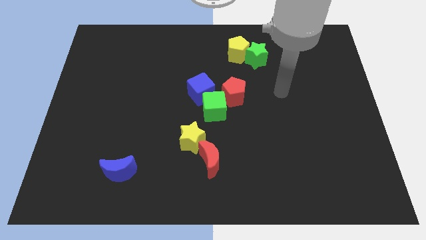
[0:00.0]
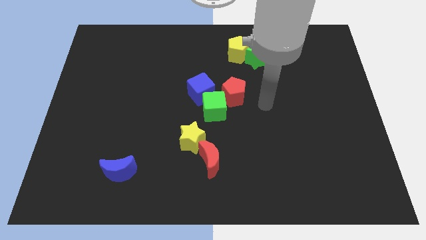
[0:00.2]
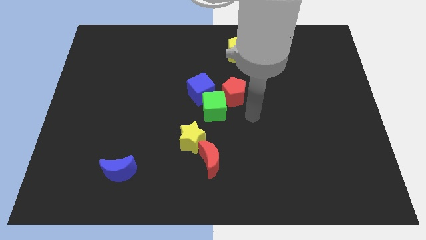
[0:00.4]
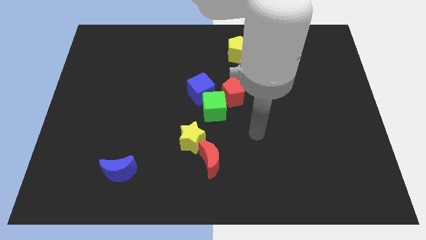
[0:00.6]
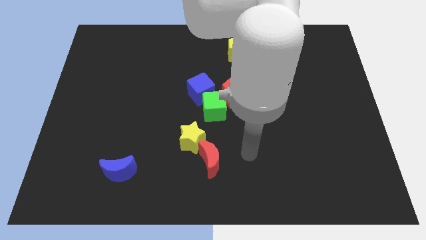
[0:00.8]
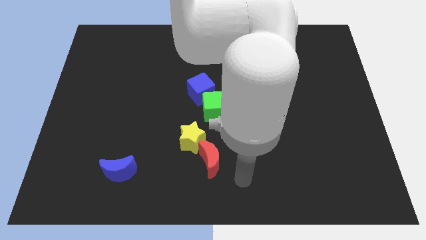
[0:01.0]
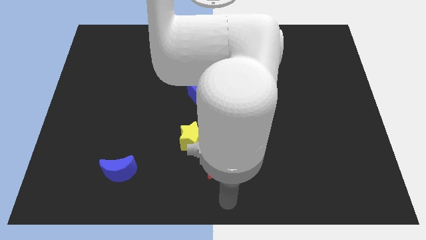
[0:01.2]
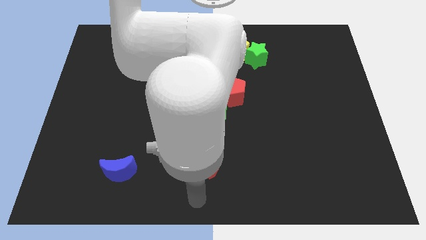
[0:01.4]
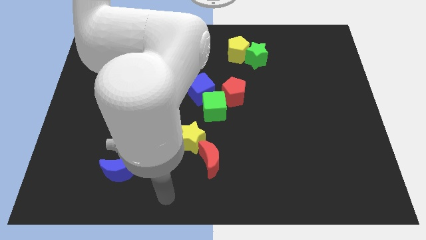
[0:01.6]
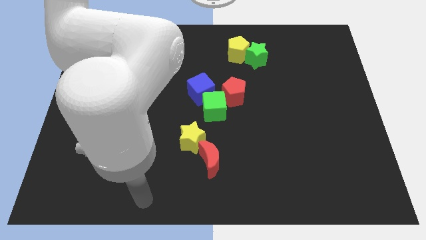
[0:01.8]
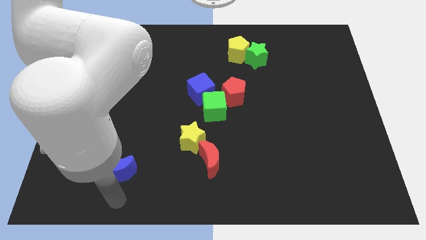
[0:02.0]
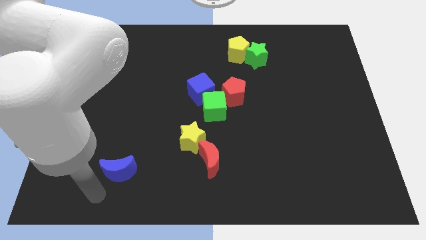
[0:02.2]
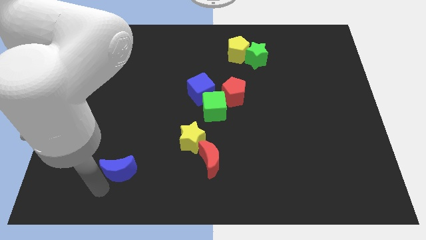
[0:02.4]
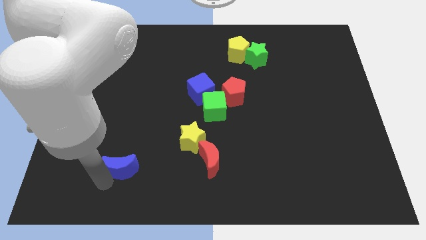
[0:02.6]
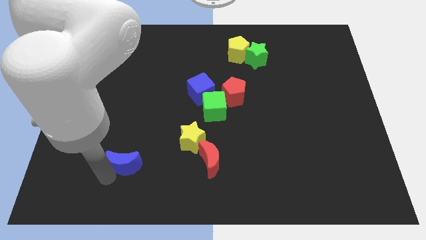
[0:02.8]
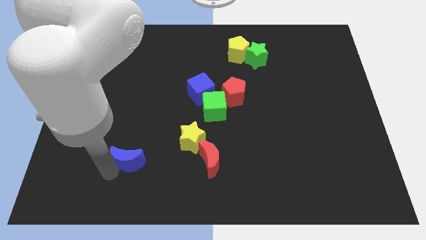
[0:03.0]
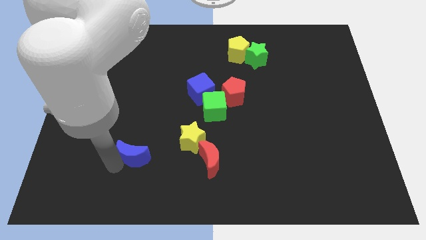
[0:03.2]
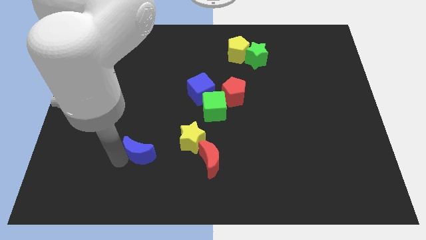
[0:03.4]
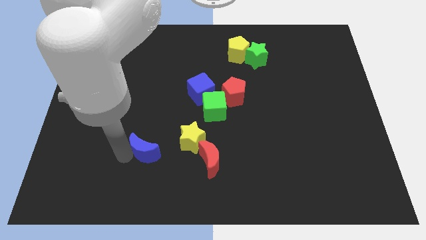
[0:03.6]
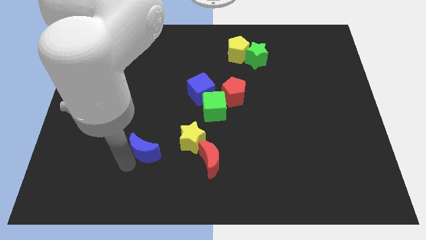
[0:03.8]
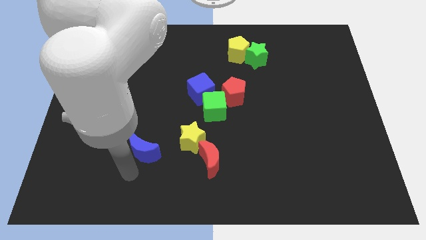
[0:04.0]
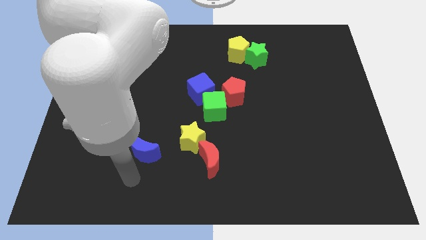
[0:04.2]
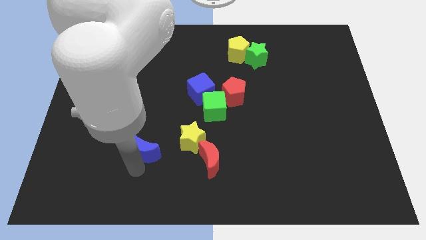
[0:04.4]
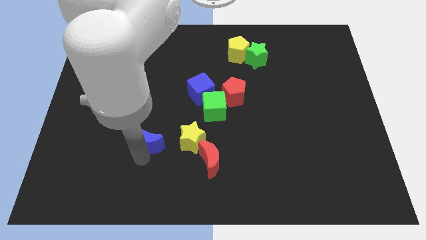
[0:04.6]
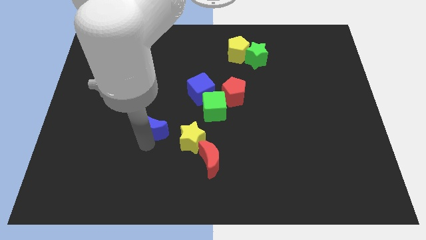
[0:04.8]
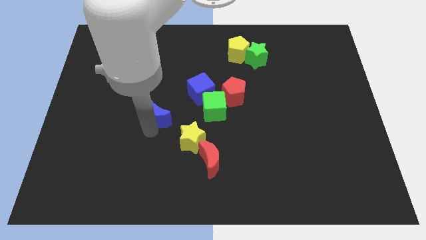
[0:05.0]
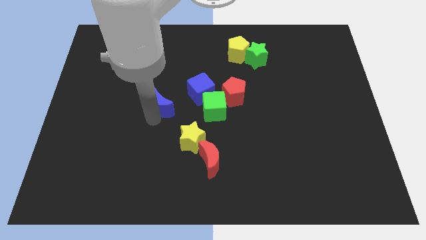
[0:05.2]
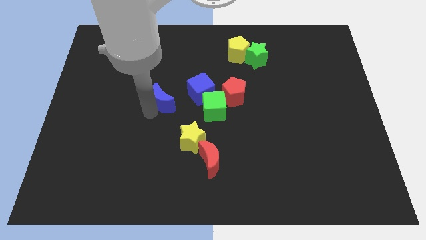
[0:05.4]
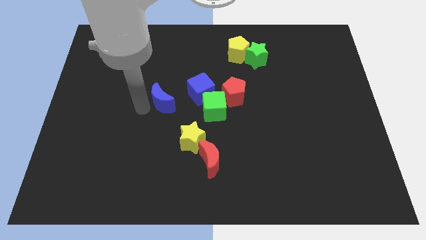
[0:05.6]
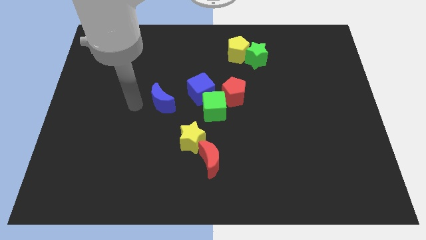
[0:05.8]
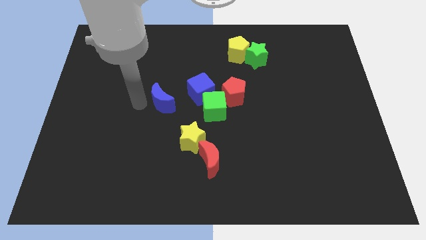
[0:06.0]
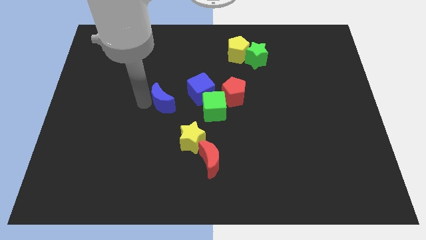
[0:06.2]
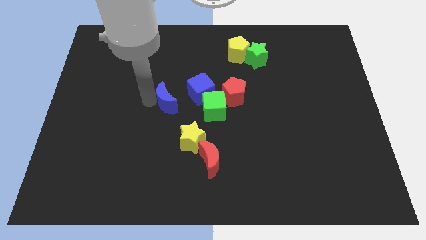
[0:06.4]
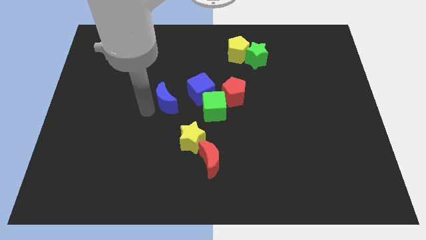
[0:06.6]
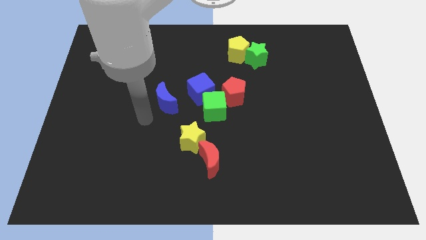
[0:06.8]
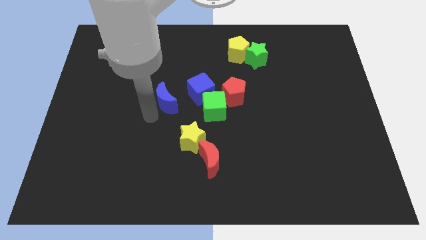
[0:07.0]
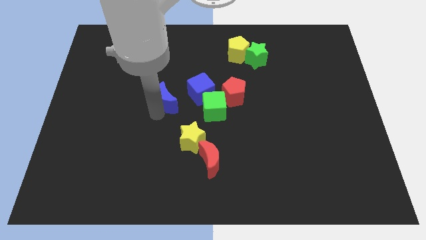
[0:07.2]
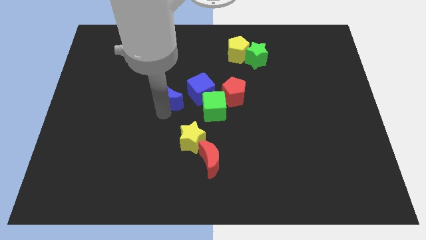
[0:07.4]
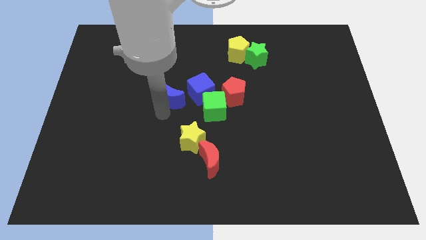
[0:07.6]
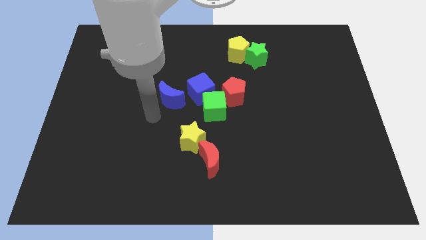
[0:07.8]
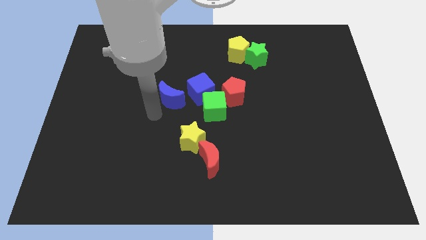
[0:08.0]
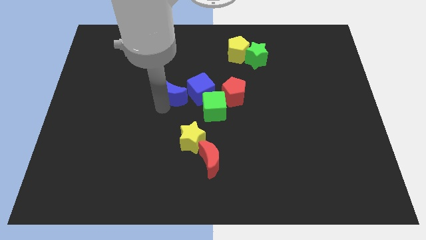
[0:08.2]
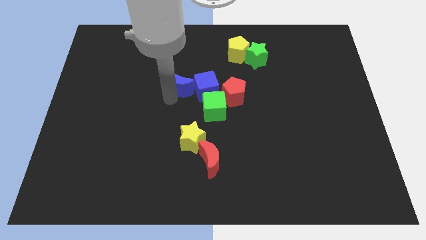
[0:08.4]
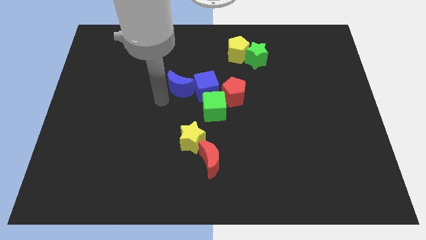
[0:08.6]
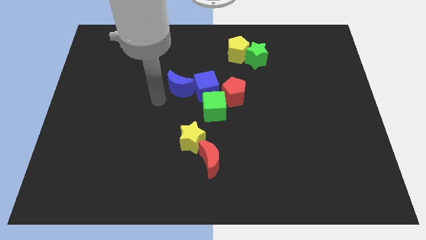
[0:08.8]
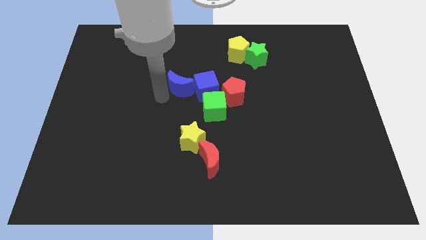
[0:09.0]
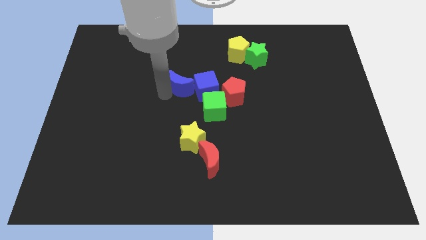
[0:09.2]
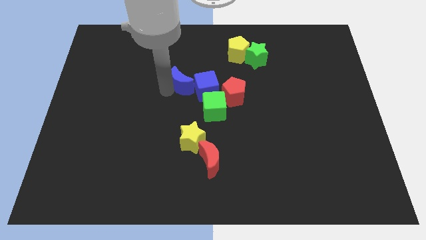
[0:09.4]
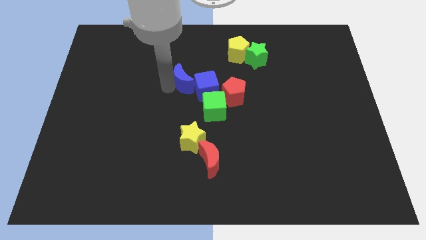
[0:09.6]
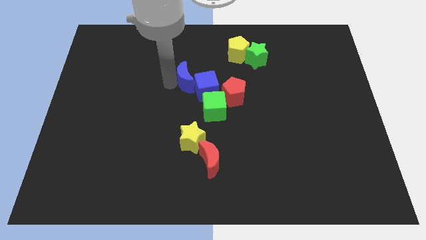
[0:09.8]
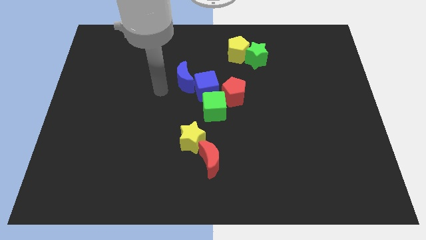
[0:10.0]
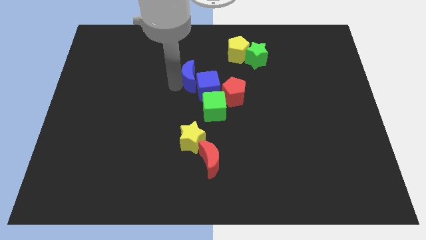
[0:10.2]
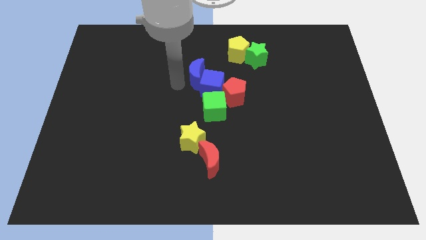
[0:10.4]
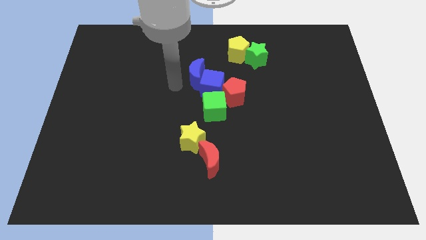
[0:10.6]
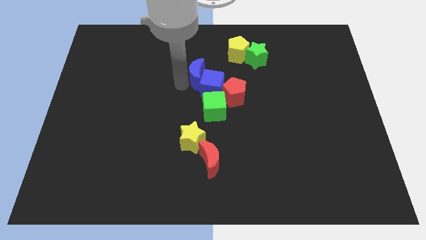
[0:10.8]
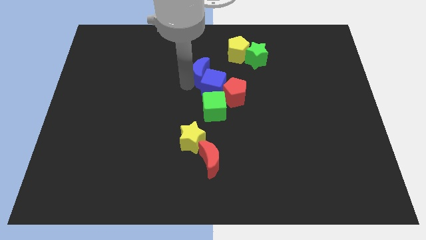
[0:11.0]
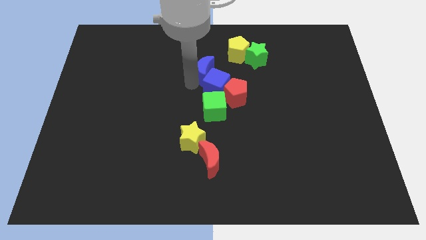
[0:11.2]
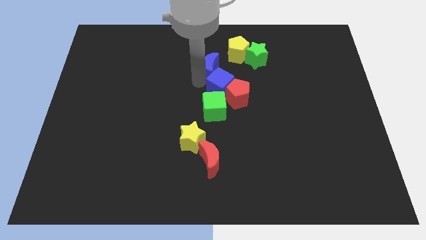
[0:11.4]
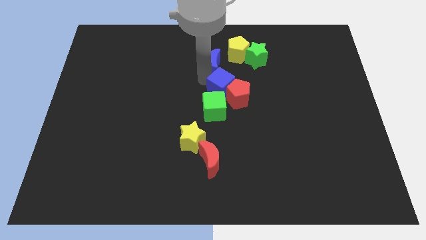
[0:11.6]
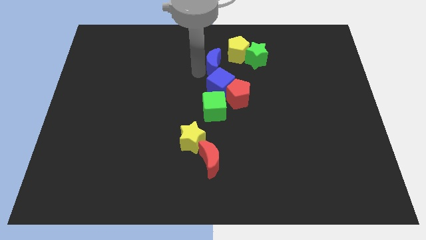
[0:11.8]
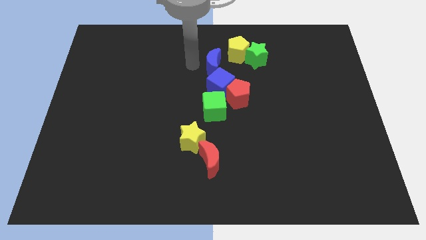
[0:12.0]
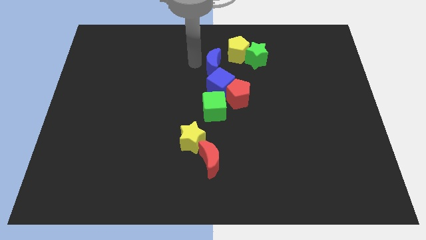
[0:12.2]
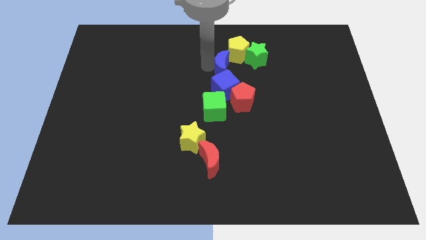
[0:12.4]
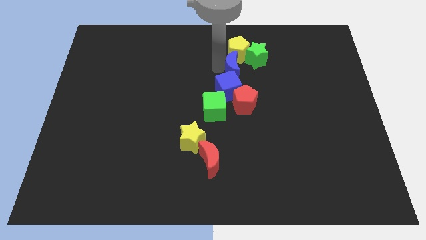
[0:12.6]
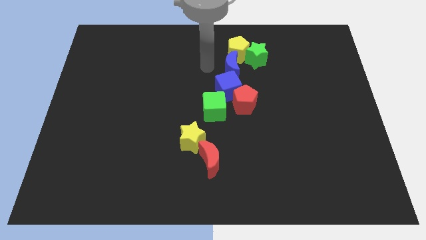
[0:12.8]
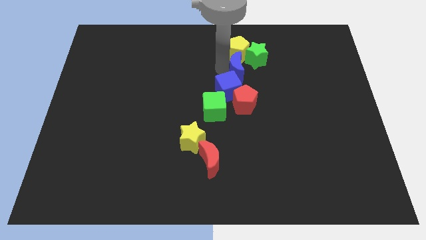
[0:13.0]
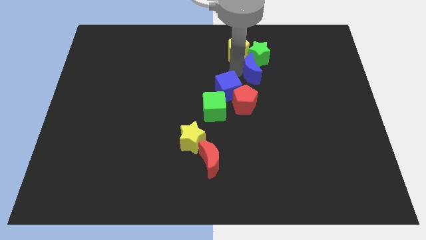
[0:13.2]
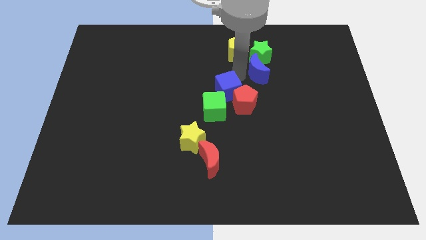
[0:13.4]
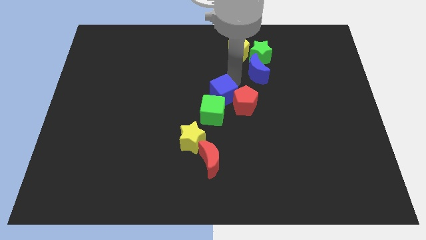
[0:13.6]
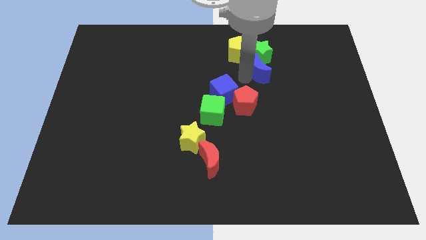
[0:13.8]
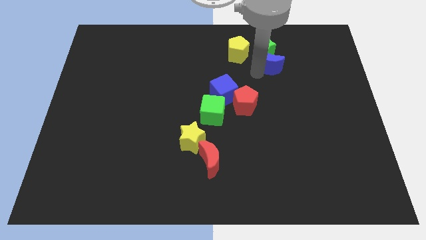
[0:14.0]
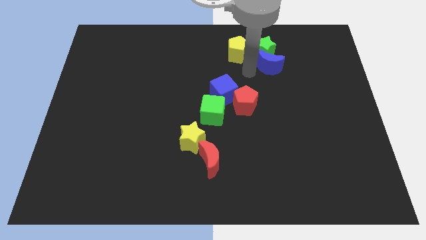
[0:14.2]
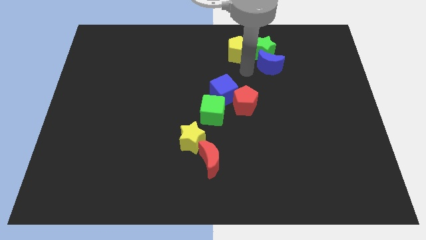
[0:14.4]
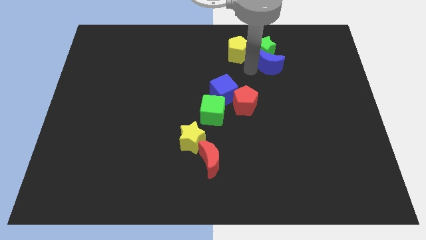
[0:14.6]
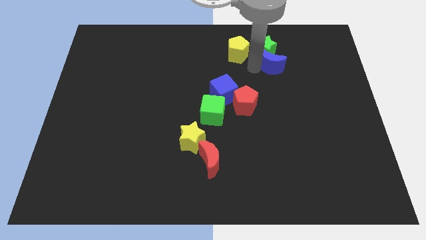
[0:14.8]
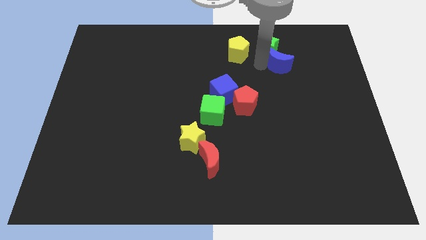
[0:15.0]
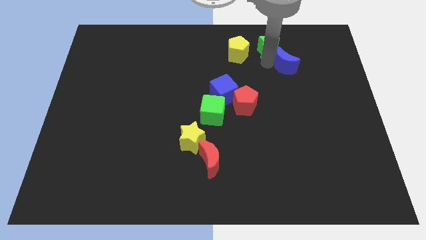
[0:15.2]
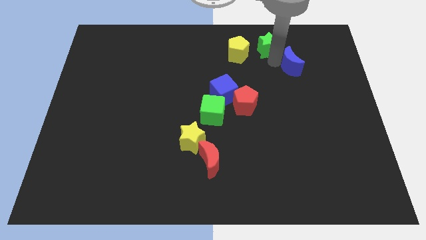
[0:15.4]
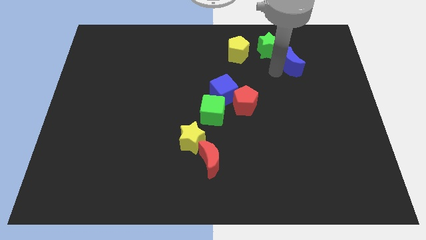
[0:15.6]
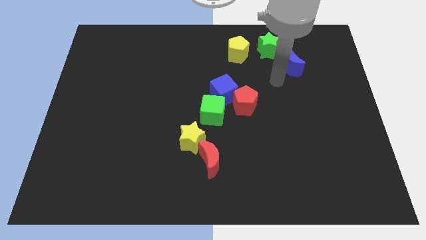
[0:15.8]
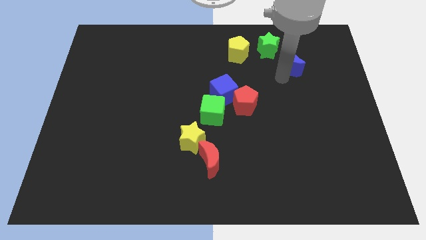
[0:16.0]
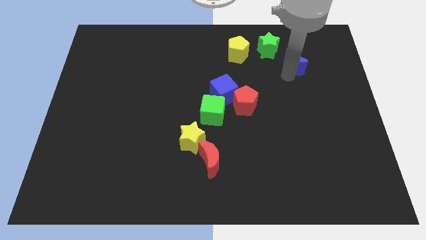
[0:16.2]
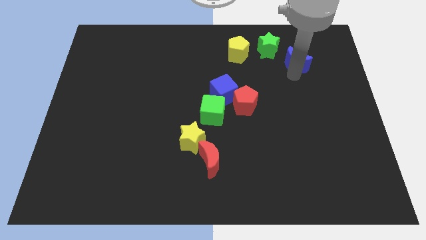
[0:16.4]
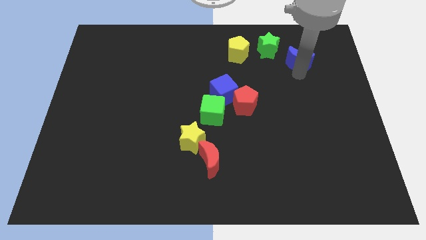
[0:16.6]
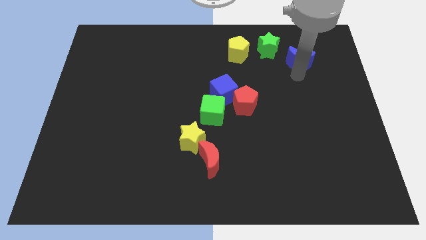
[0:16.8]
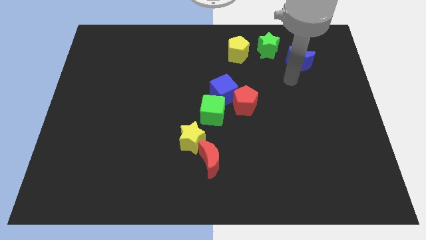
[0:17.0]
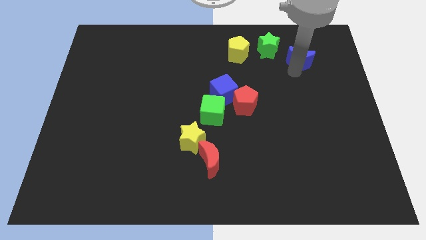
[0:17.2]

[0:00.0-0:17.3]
put the blue moon right of the green star

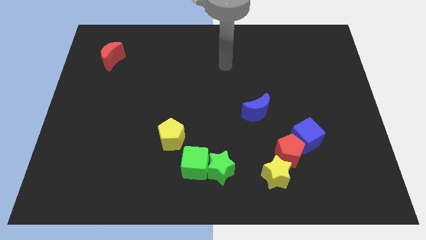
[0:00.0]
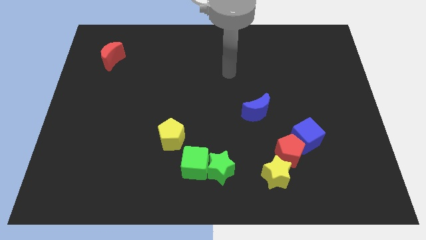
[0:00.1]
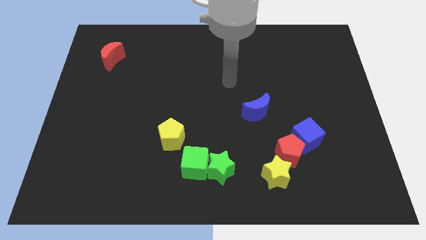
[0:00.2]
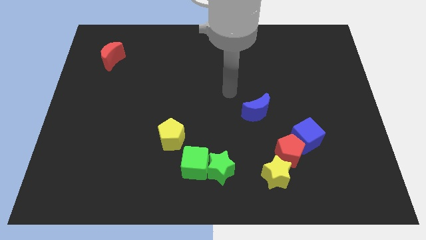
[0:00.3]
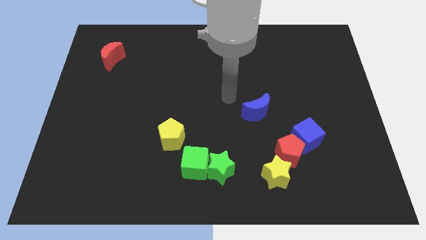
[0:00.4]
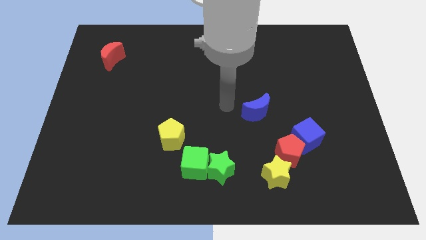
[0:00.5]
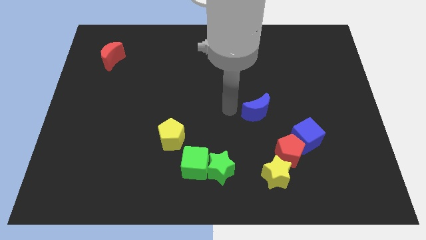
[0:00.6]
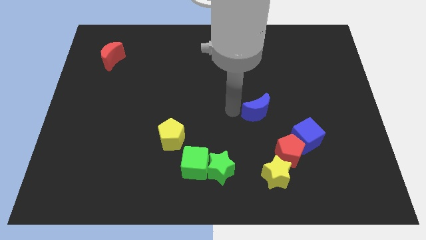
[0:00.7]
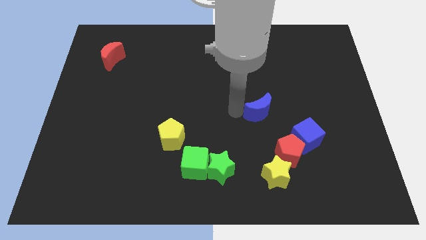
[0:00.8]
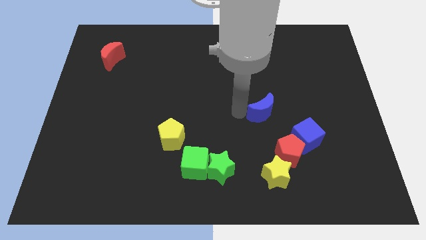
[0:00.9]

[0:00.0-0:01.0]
move the blue moon to the top of the red pentagon
